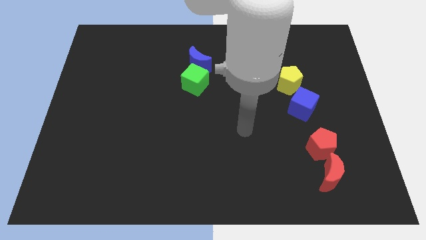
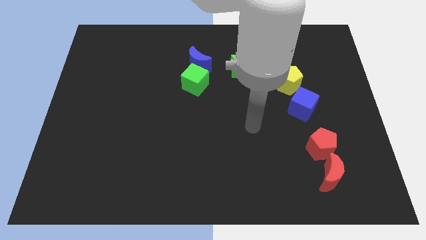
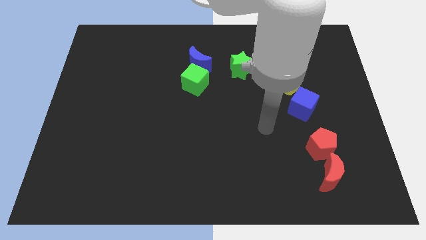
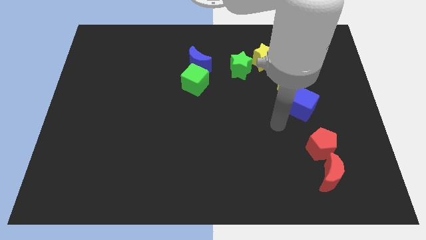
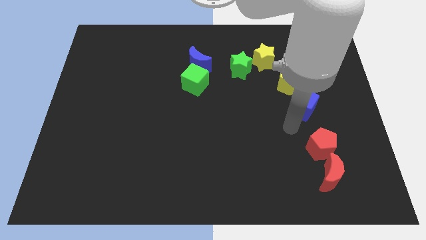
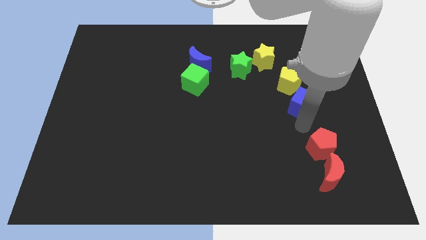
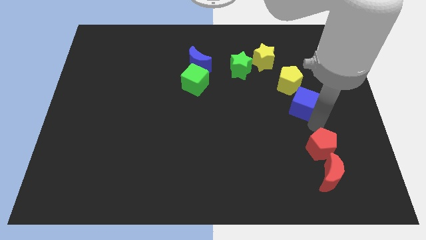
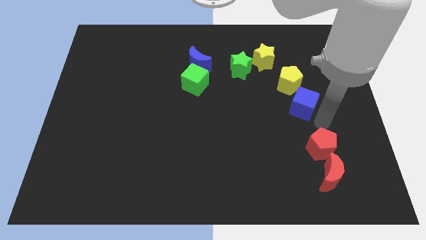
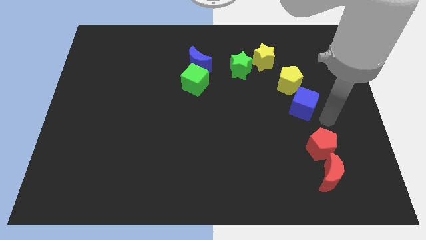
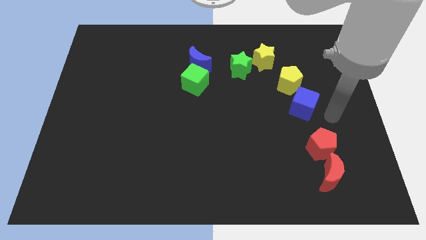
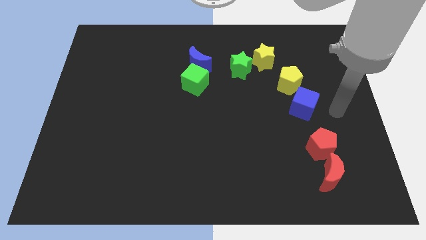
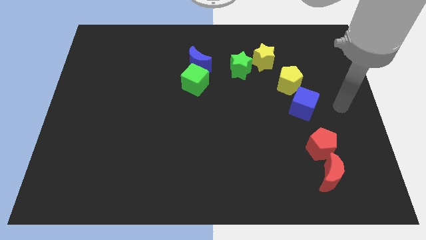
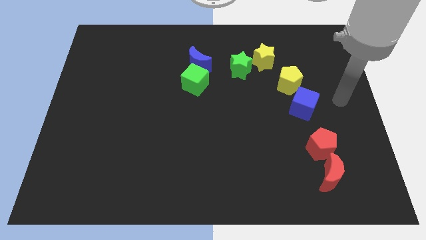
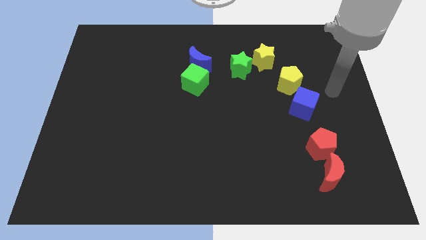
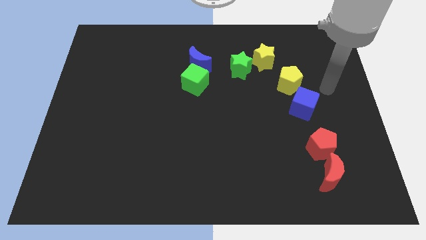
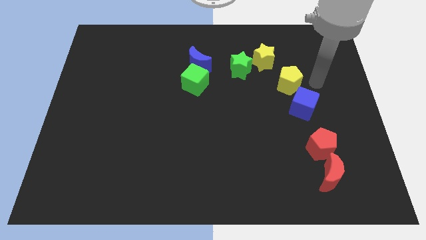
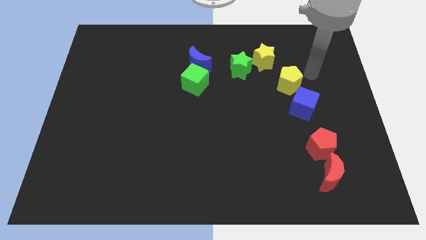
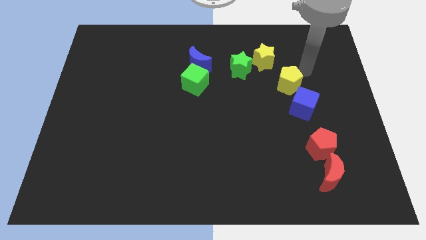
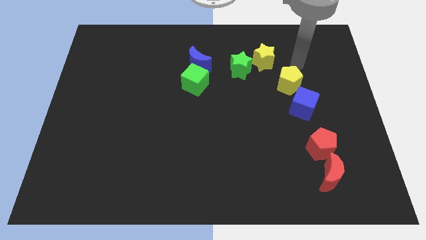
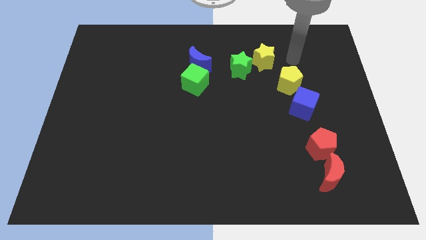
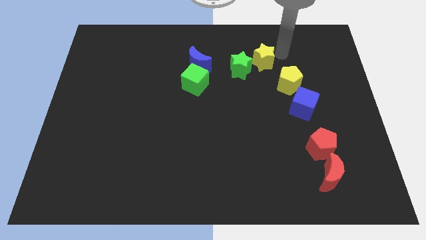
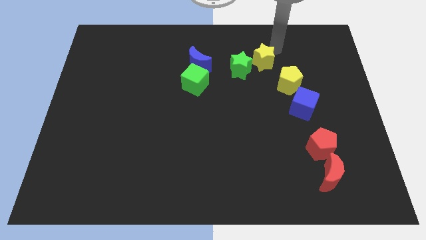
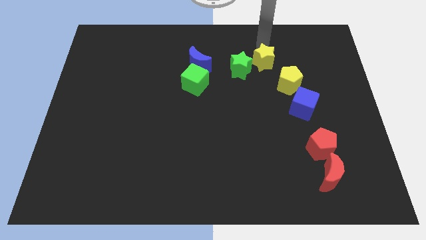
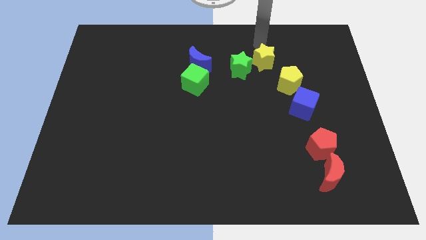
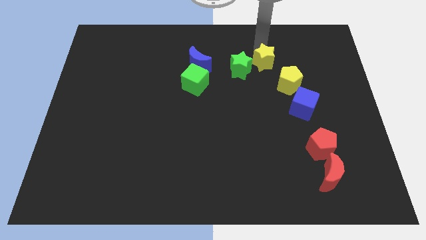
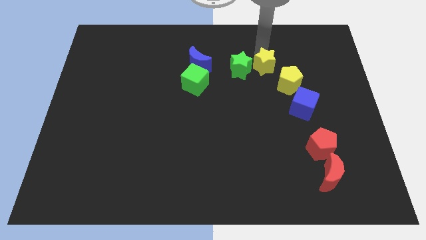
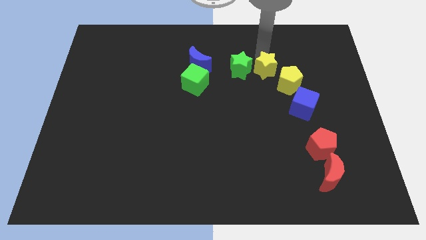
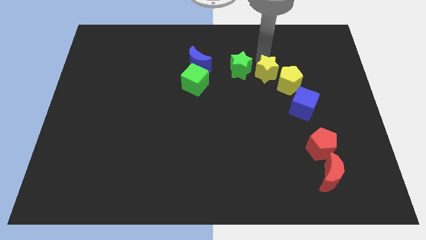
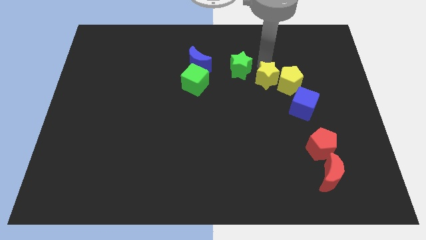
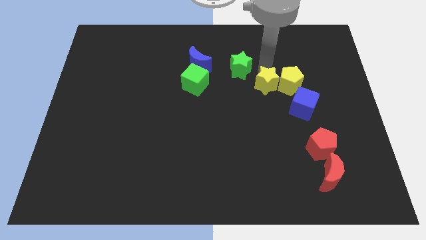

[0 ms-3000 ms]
move the yellow star down slightly

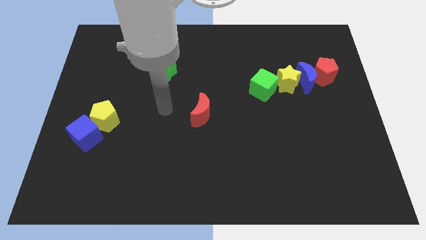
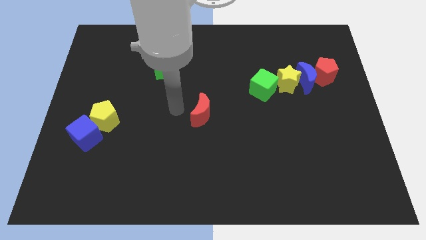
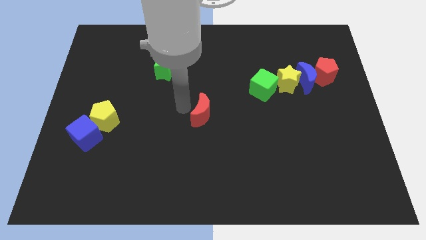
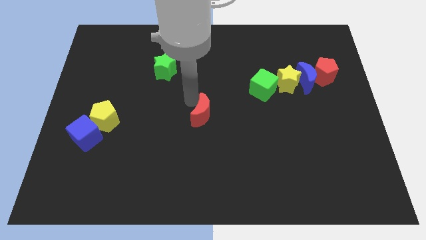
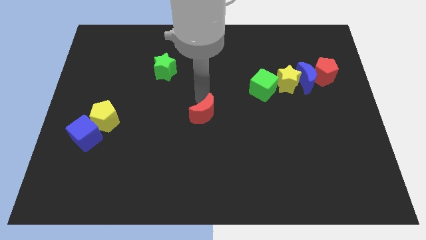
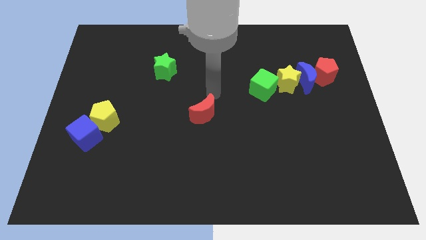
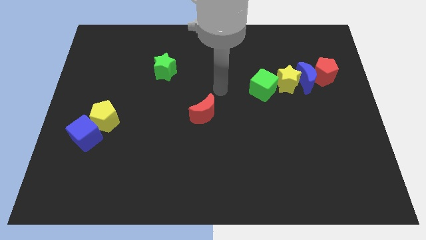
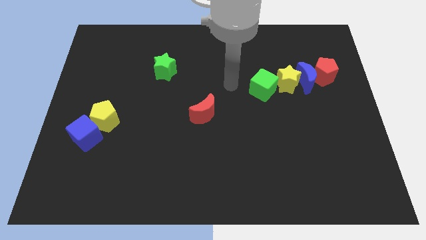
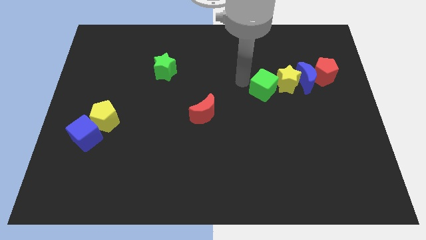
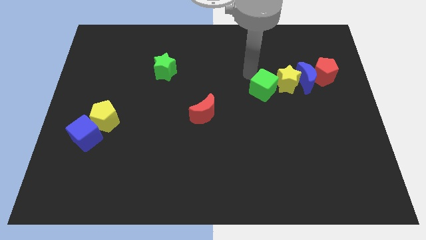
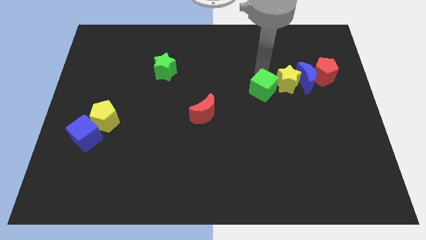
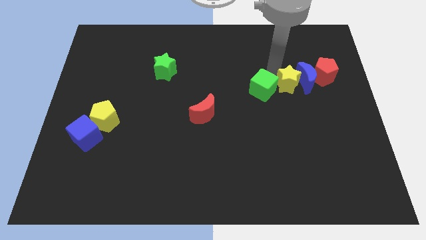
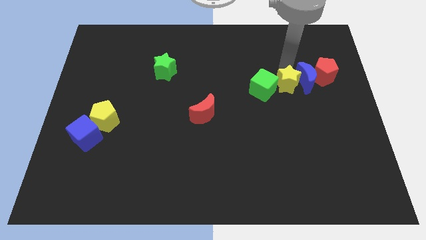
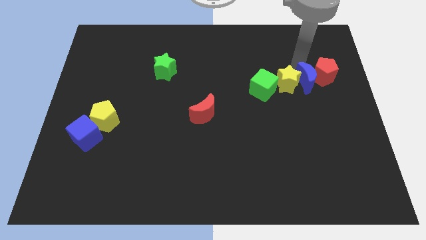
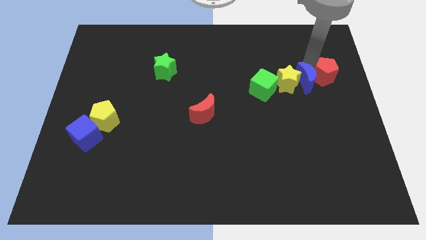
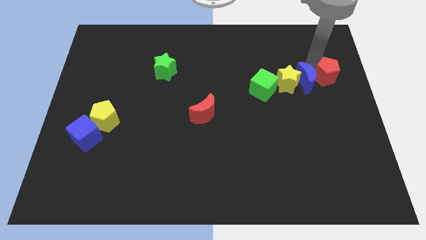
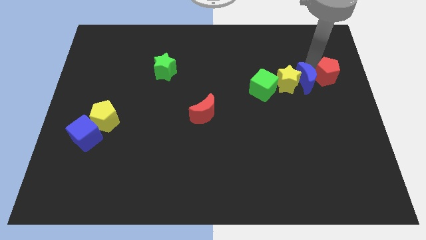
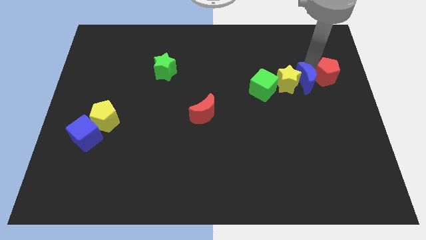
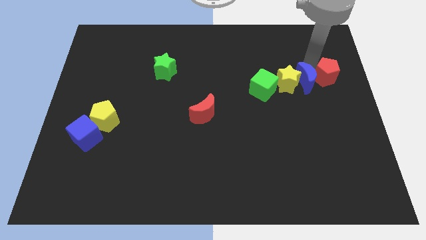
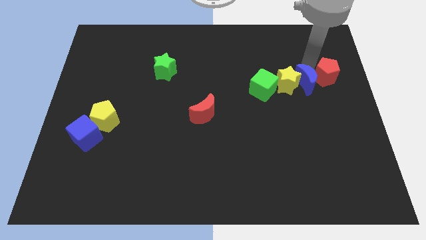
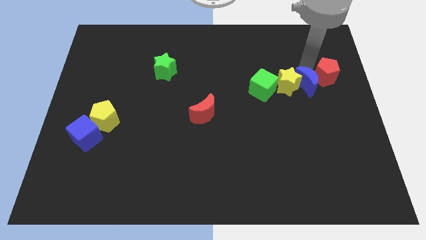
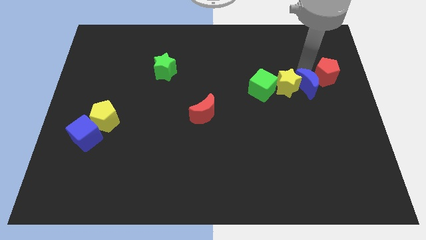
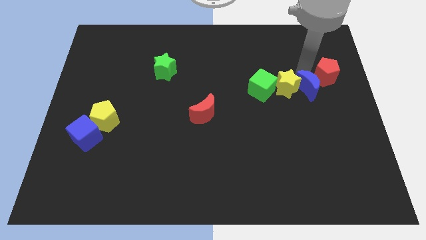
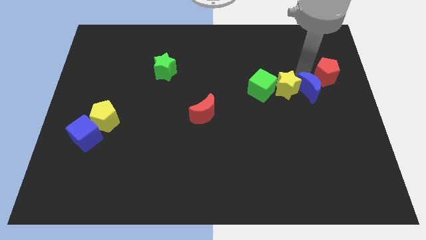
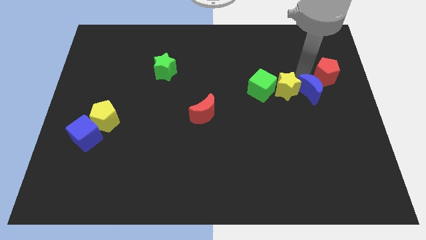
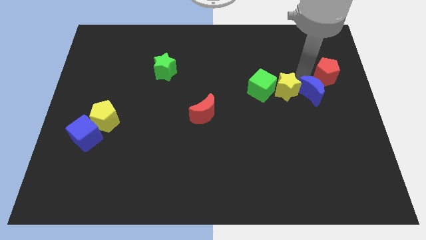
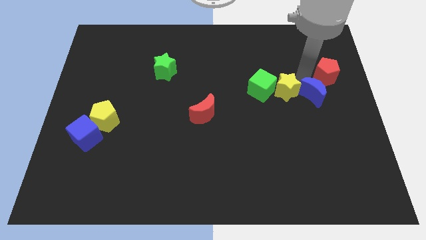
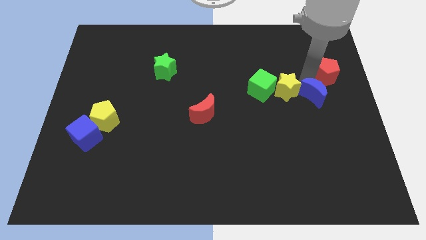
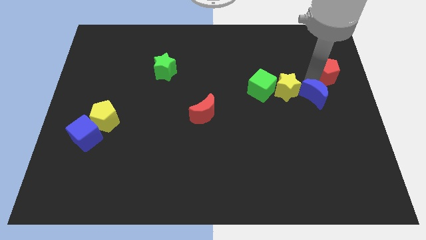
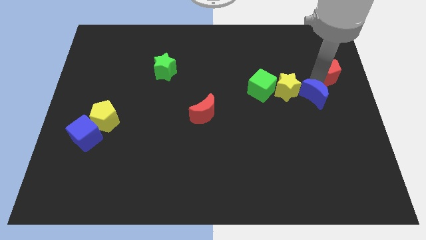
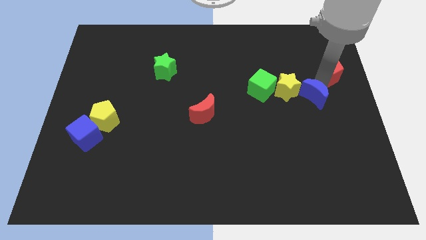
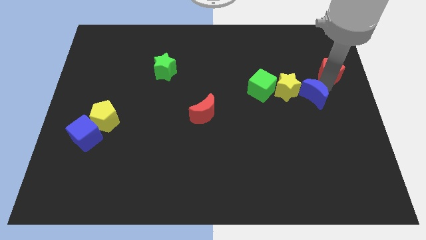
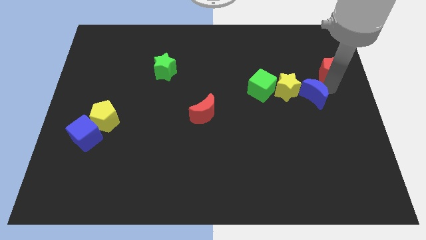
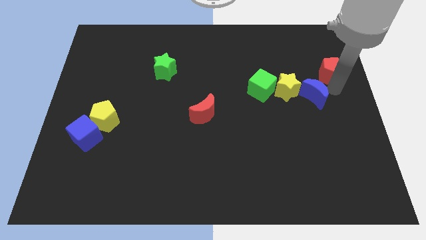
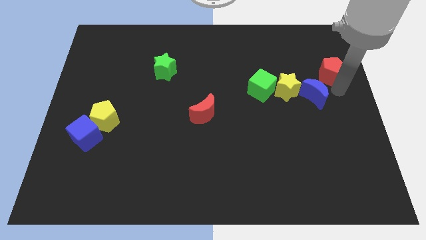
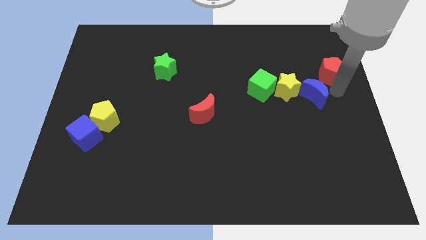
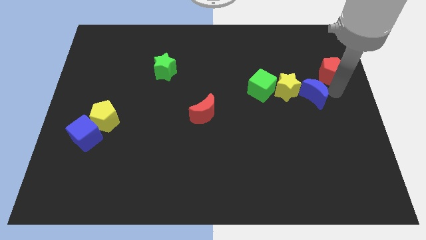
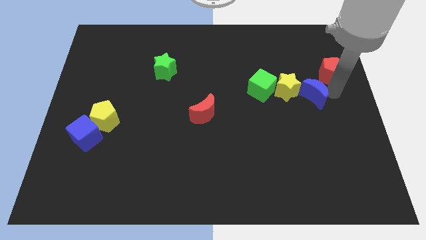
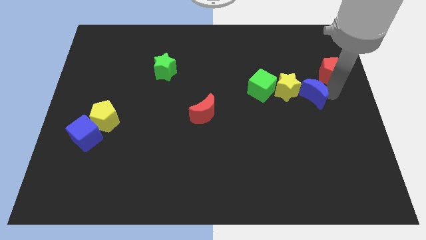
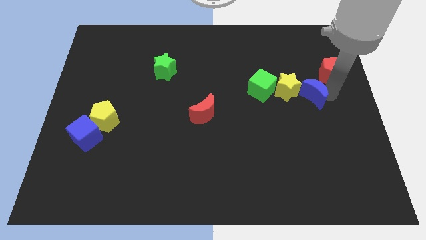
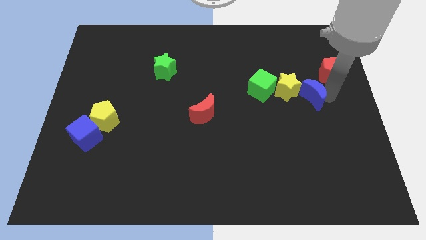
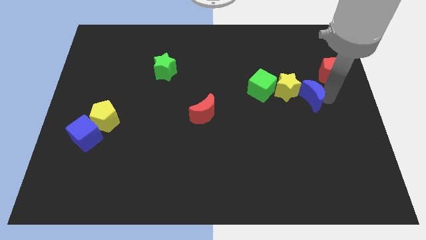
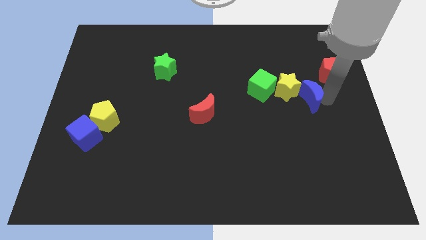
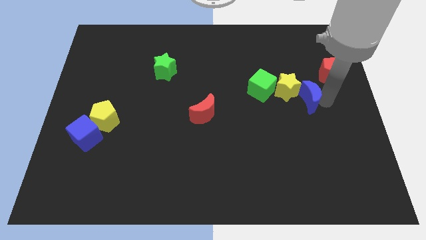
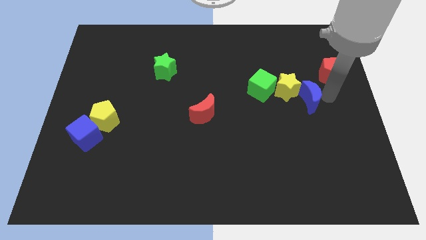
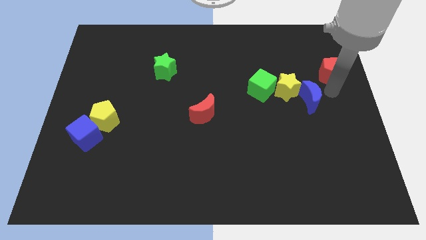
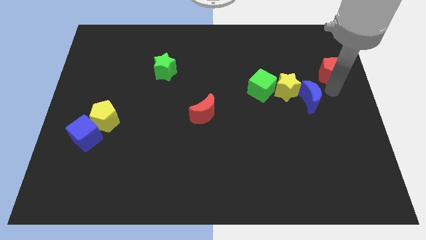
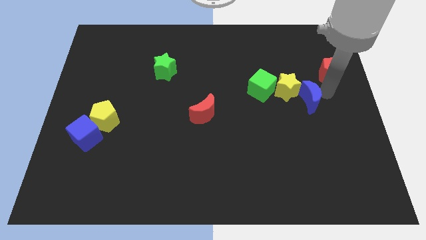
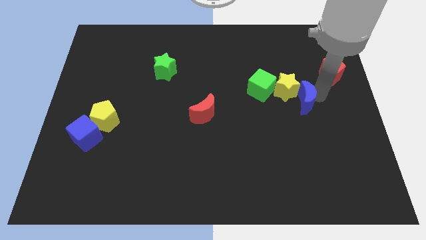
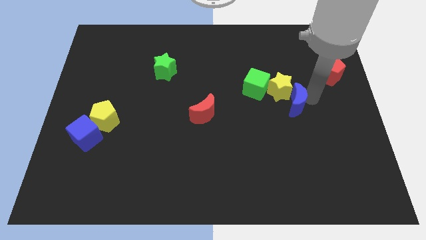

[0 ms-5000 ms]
slide the blue moon a little downwards and left

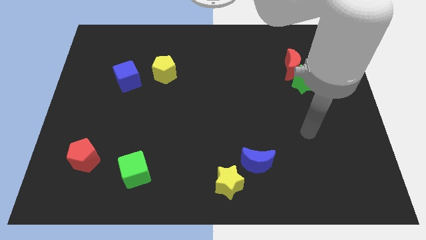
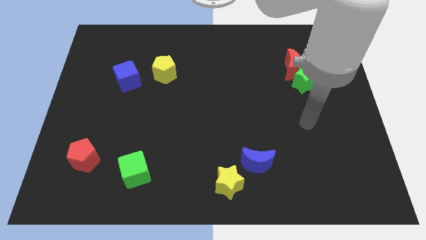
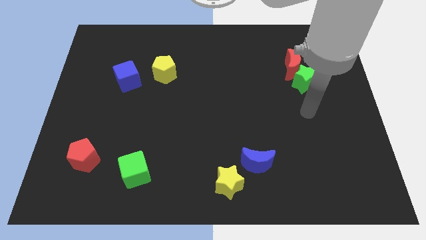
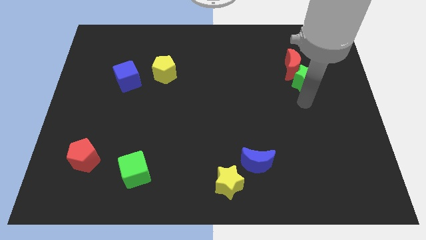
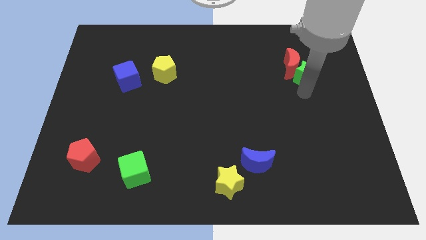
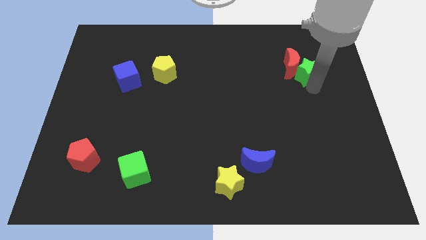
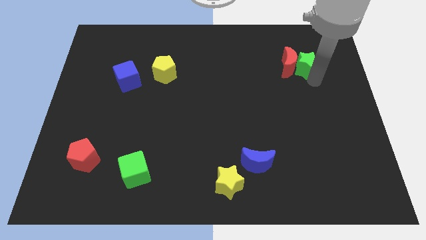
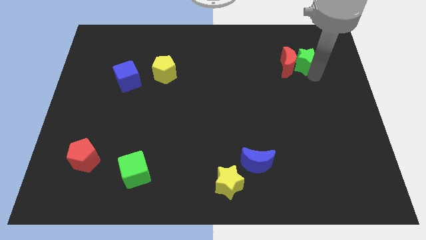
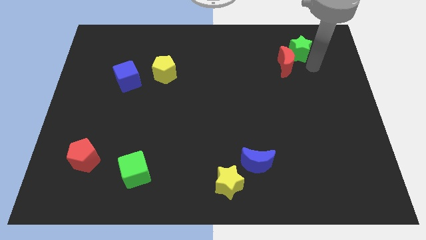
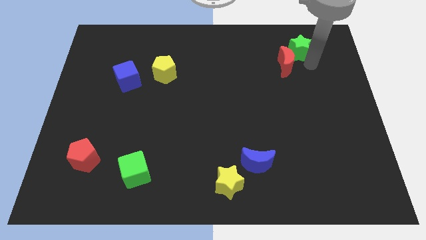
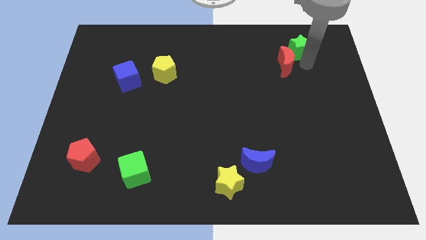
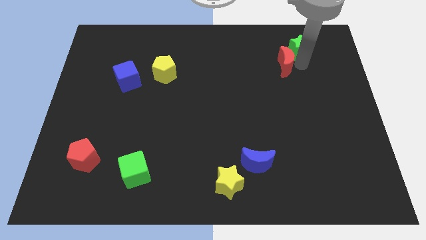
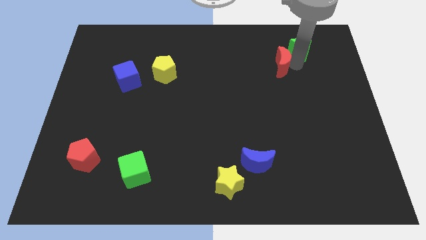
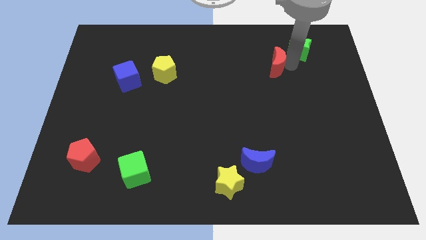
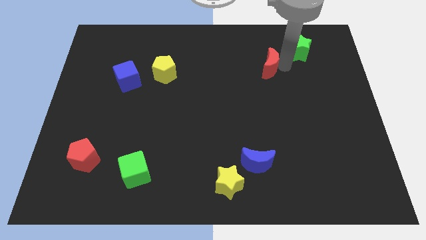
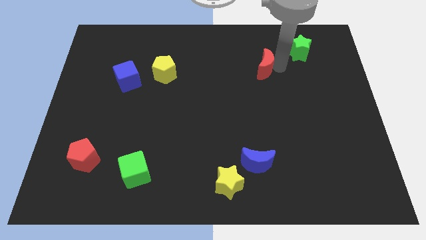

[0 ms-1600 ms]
move the red moon to the left somewhat
